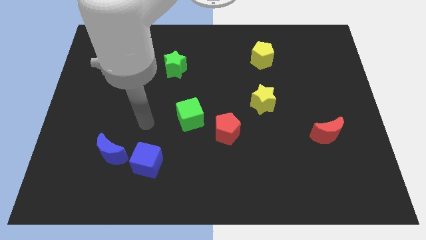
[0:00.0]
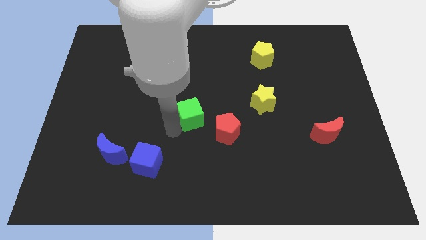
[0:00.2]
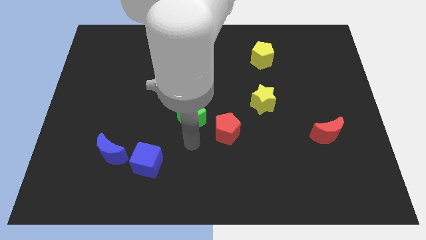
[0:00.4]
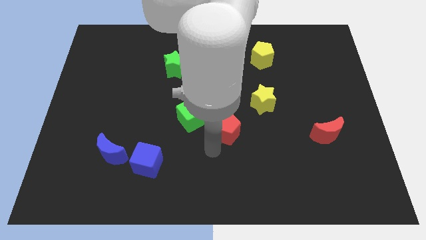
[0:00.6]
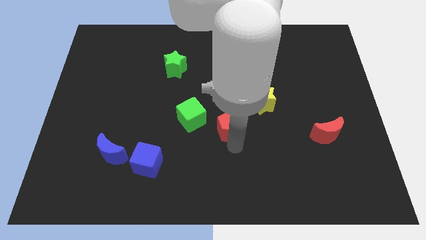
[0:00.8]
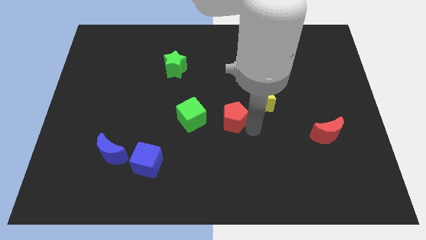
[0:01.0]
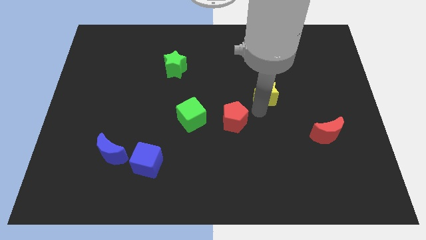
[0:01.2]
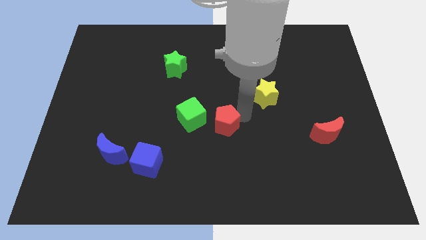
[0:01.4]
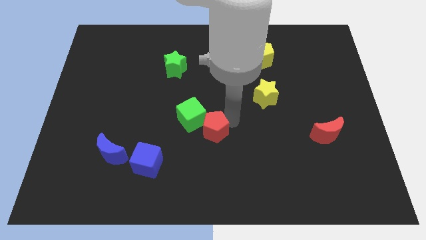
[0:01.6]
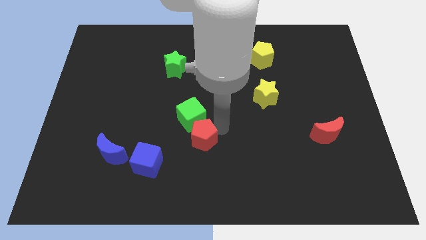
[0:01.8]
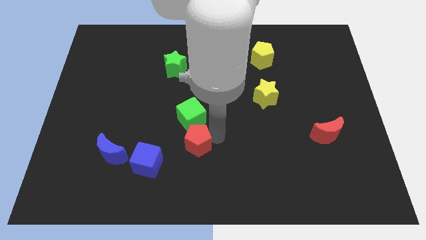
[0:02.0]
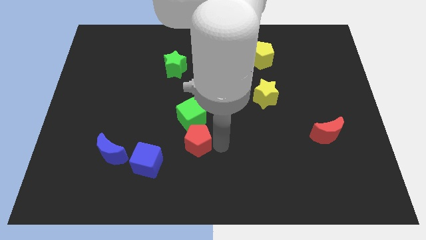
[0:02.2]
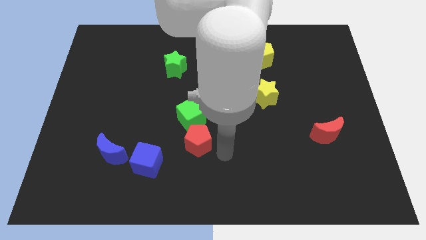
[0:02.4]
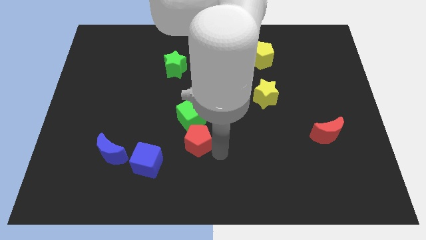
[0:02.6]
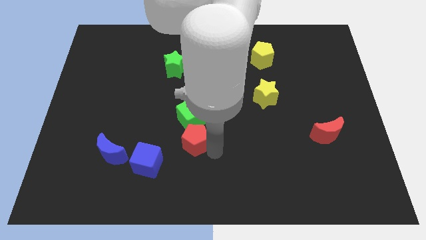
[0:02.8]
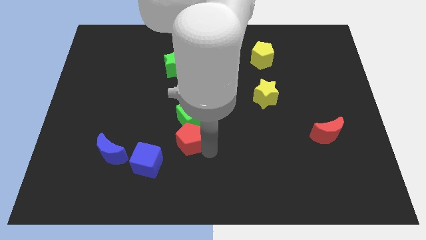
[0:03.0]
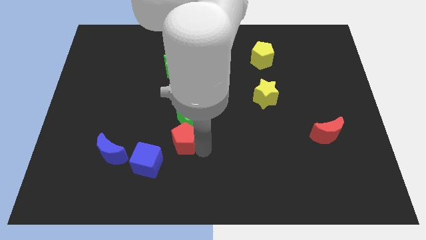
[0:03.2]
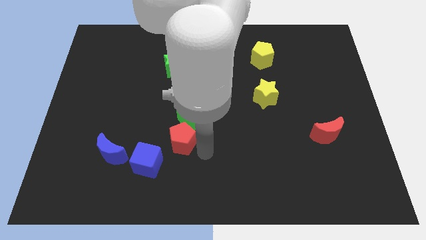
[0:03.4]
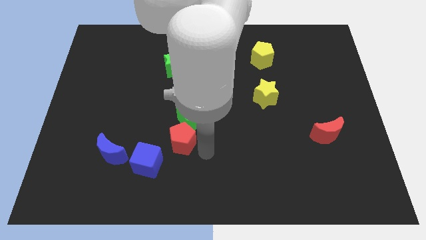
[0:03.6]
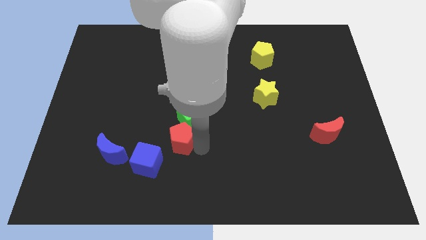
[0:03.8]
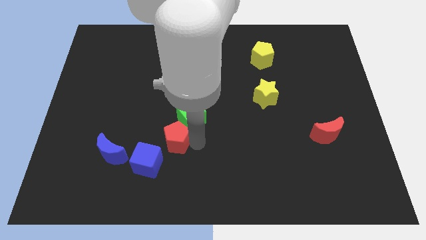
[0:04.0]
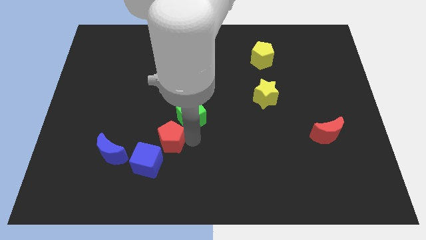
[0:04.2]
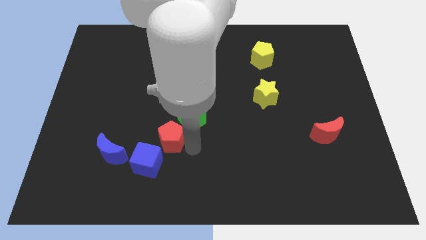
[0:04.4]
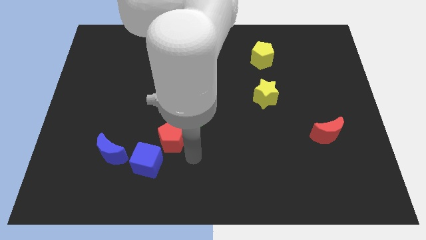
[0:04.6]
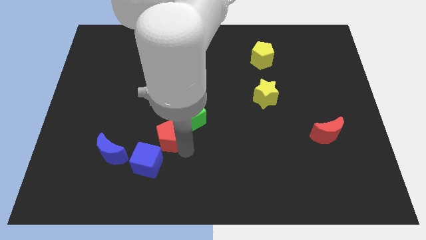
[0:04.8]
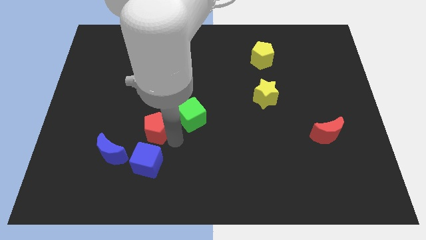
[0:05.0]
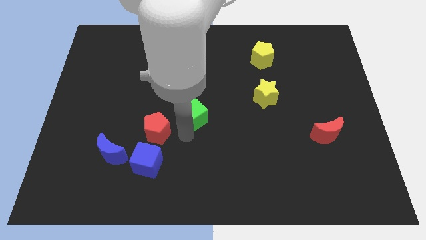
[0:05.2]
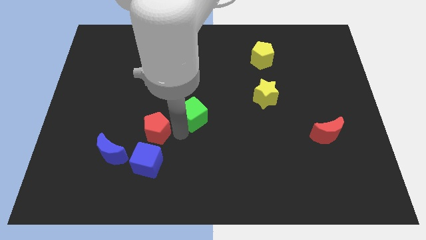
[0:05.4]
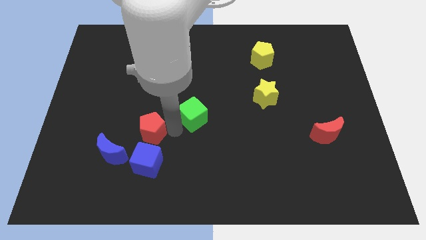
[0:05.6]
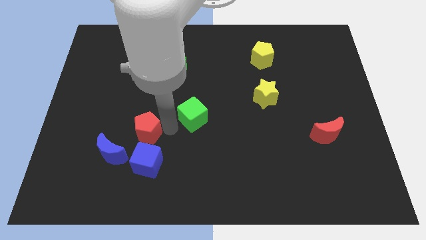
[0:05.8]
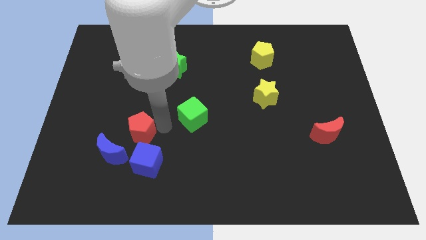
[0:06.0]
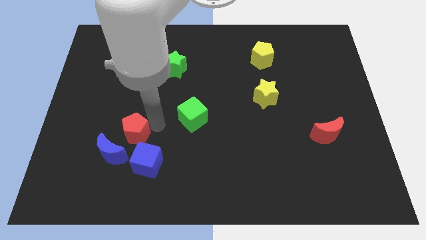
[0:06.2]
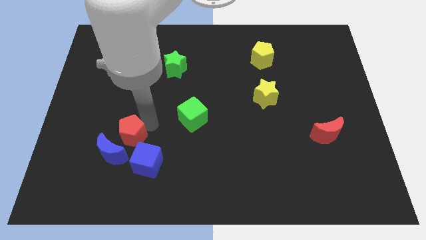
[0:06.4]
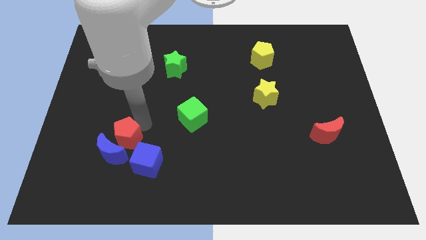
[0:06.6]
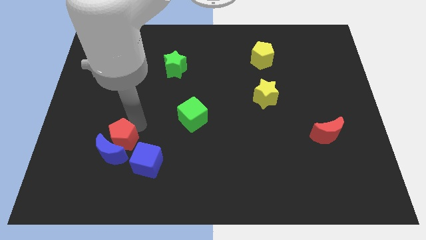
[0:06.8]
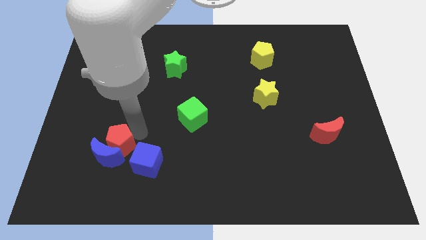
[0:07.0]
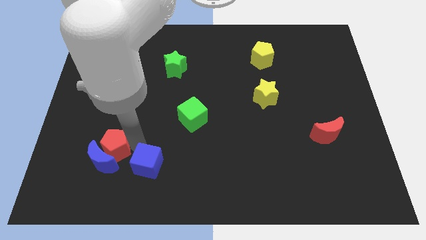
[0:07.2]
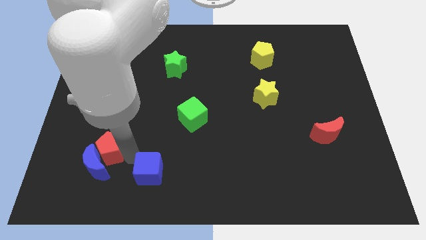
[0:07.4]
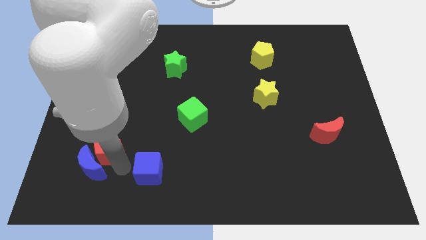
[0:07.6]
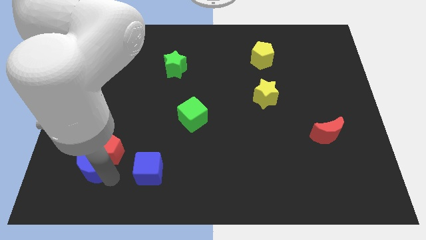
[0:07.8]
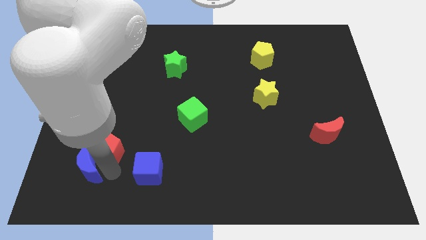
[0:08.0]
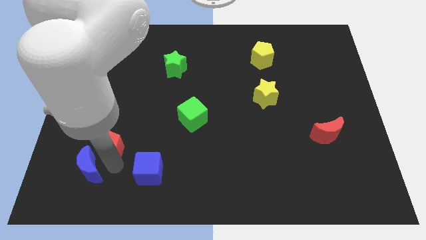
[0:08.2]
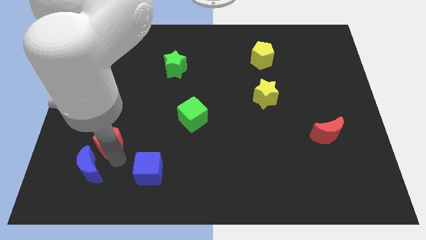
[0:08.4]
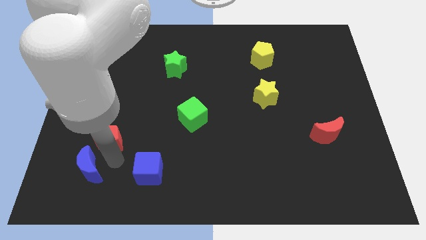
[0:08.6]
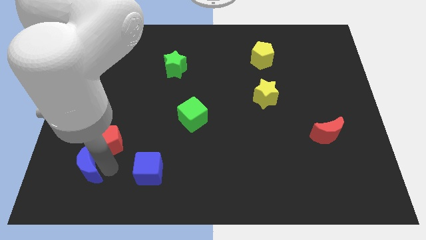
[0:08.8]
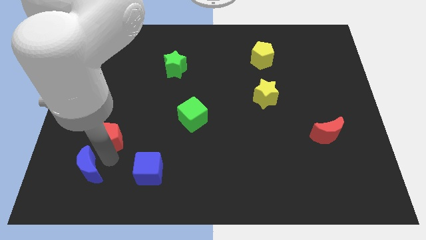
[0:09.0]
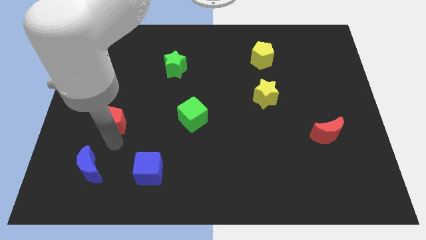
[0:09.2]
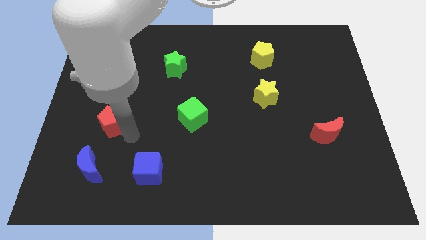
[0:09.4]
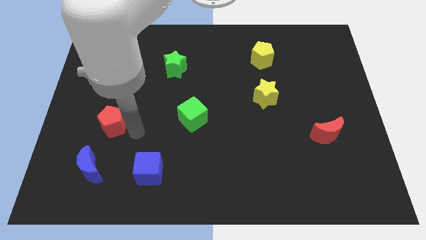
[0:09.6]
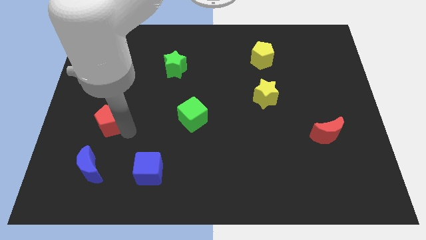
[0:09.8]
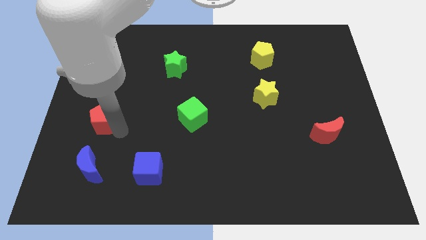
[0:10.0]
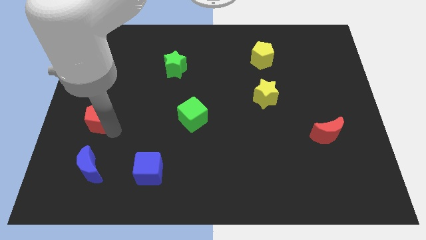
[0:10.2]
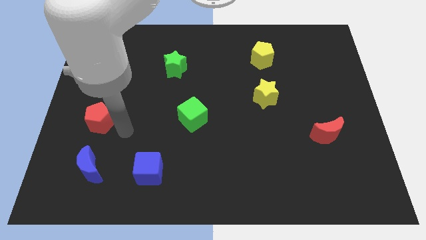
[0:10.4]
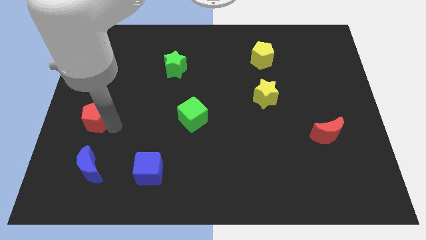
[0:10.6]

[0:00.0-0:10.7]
slide the red pentagon to the left side
